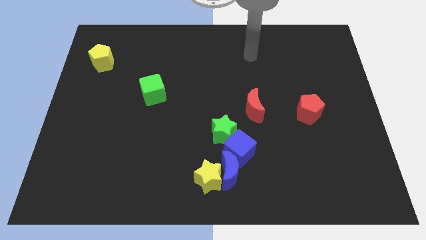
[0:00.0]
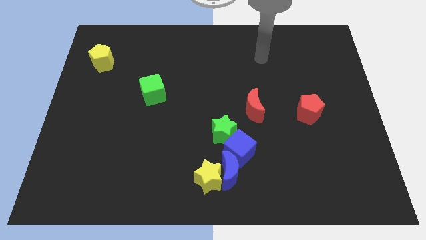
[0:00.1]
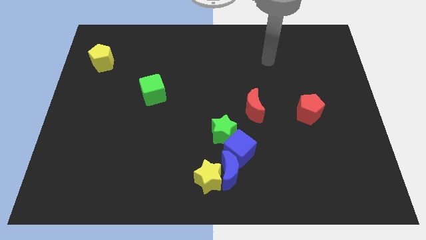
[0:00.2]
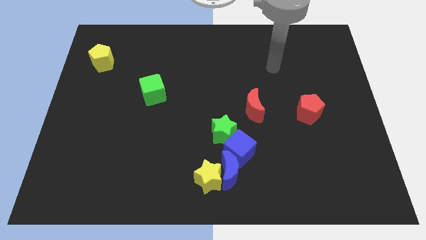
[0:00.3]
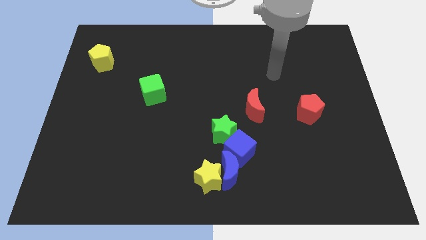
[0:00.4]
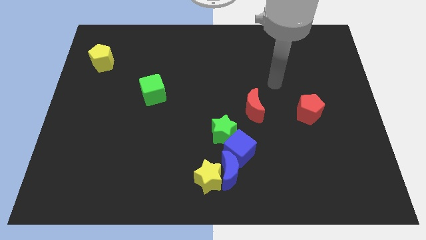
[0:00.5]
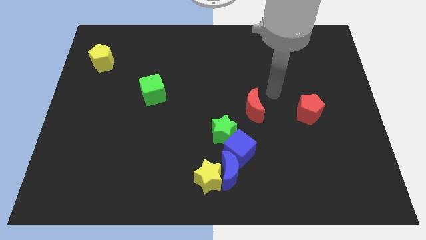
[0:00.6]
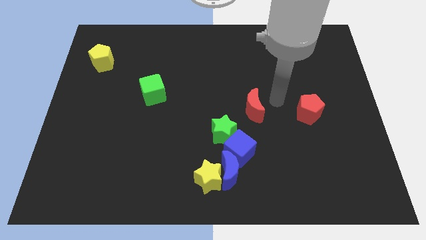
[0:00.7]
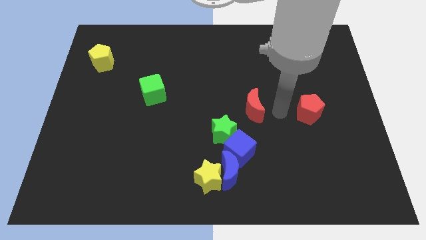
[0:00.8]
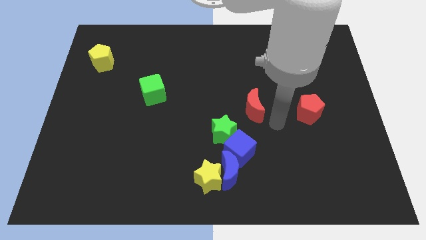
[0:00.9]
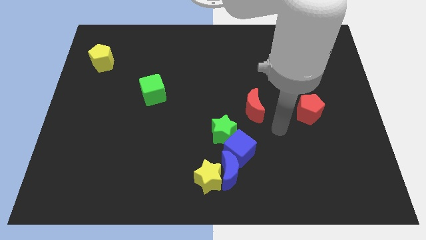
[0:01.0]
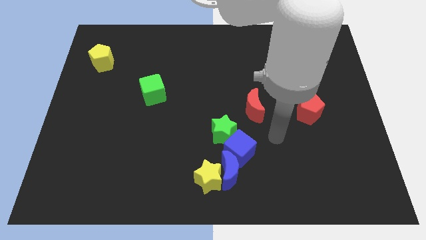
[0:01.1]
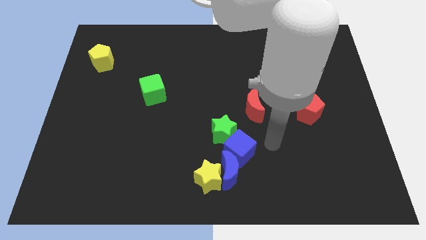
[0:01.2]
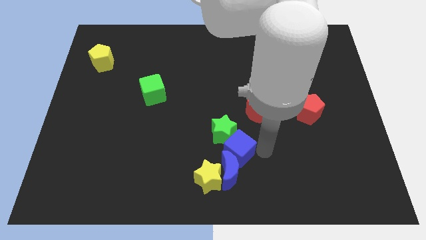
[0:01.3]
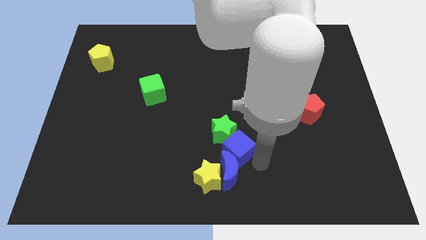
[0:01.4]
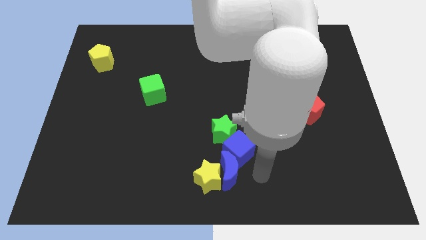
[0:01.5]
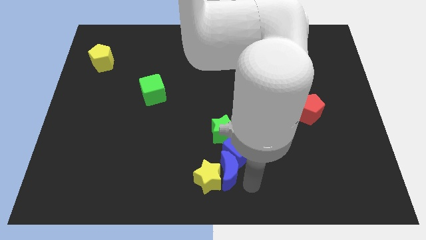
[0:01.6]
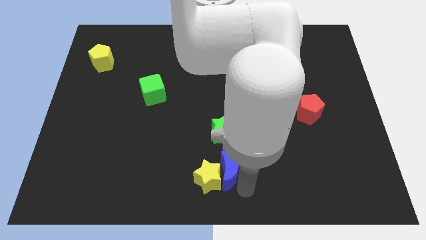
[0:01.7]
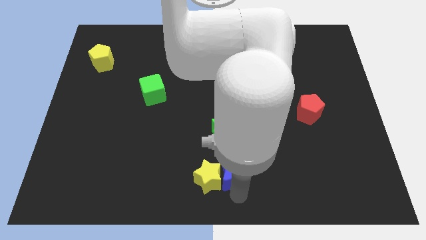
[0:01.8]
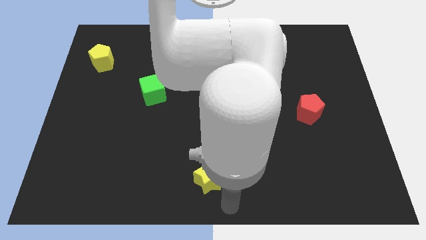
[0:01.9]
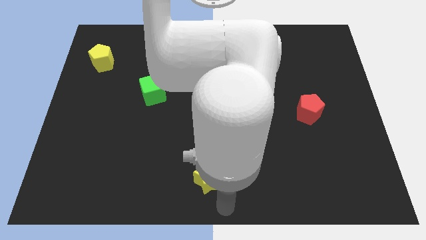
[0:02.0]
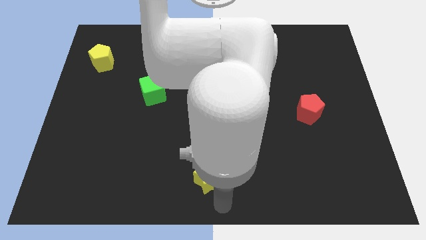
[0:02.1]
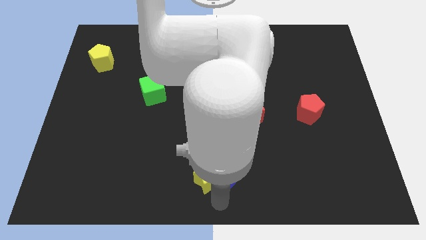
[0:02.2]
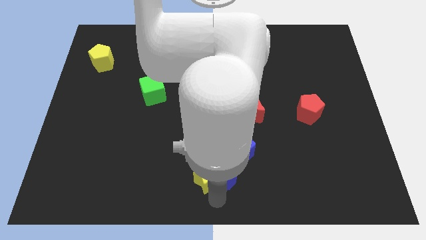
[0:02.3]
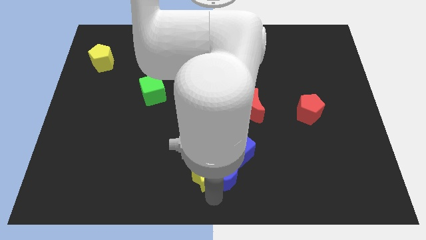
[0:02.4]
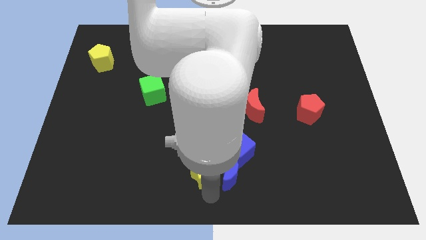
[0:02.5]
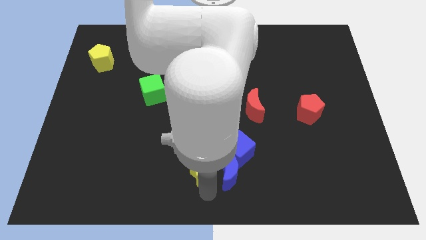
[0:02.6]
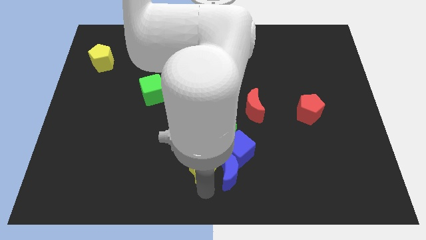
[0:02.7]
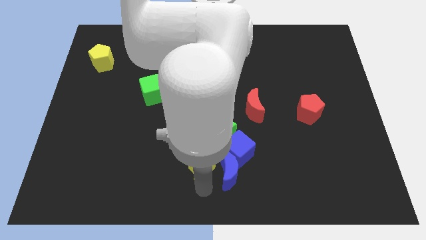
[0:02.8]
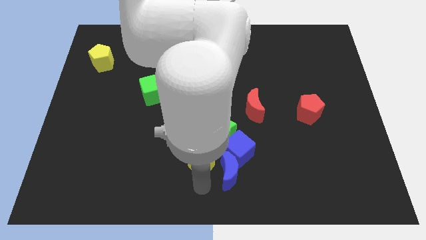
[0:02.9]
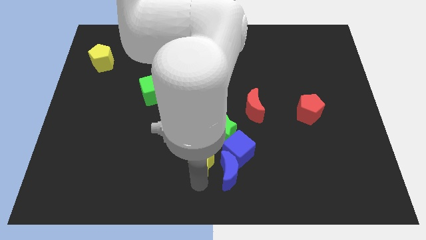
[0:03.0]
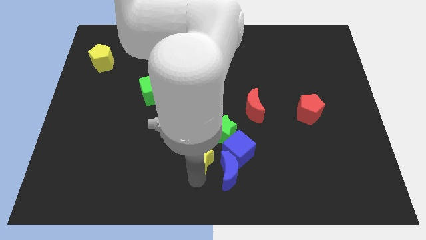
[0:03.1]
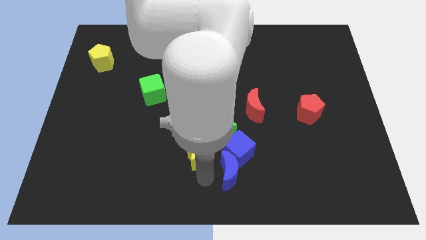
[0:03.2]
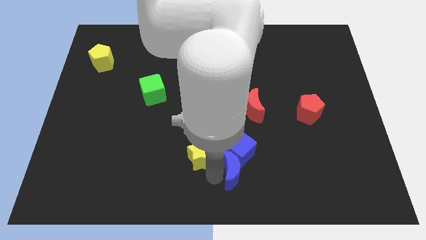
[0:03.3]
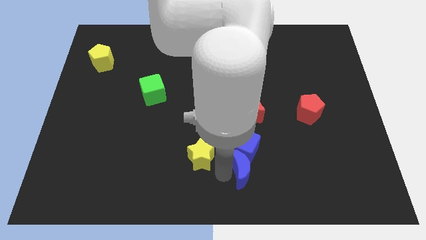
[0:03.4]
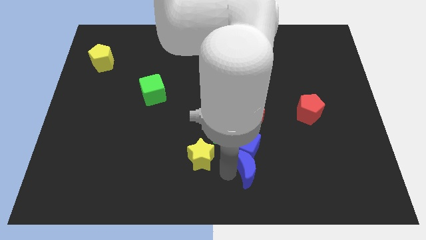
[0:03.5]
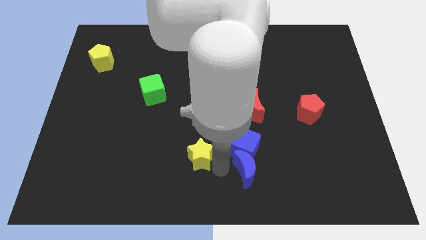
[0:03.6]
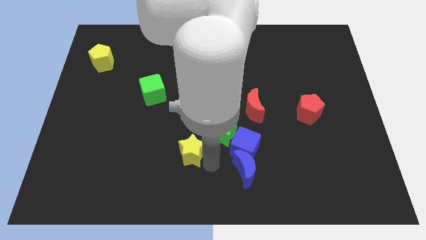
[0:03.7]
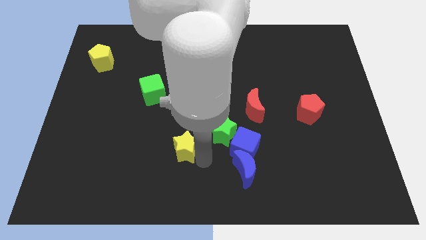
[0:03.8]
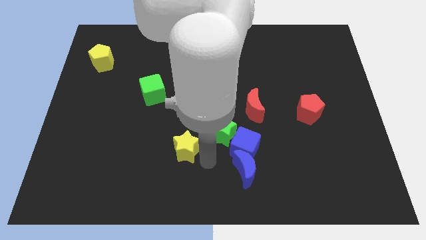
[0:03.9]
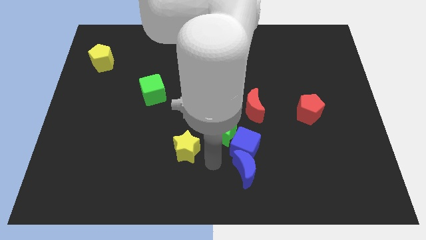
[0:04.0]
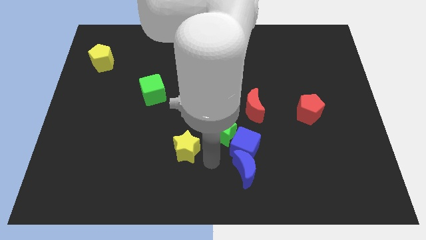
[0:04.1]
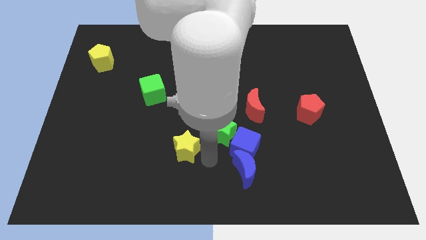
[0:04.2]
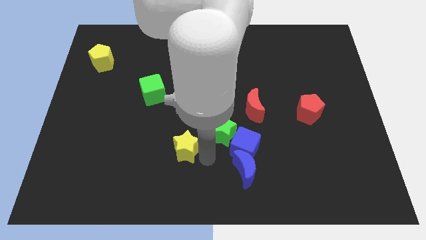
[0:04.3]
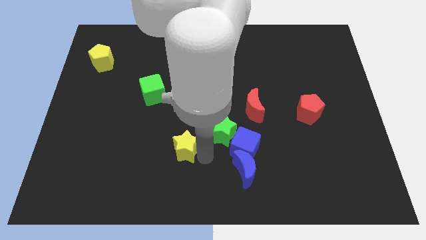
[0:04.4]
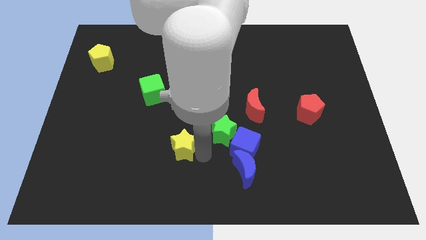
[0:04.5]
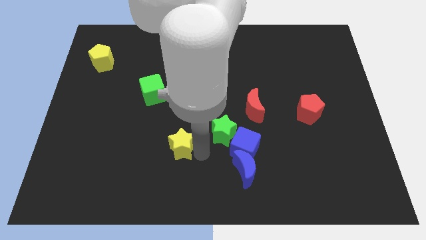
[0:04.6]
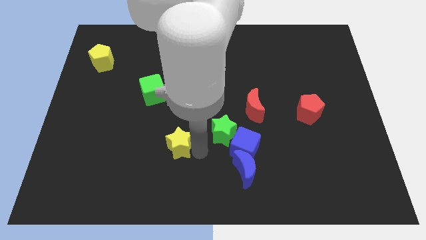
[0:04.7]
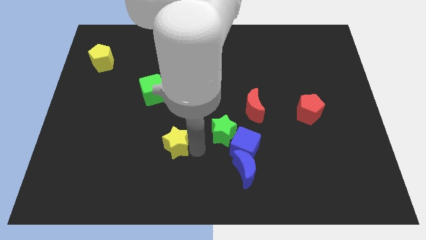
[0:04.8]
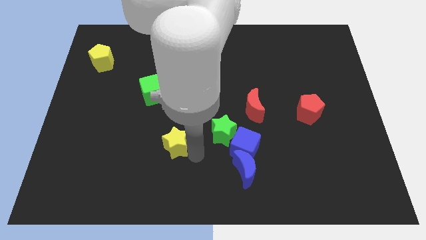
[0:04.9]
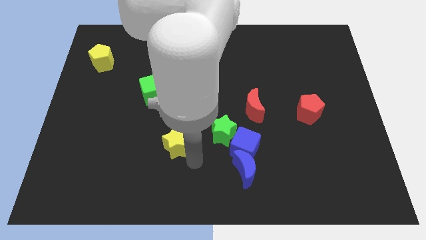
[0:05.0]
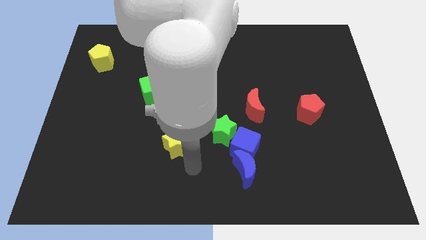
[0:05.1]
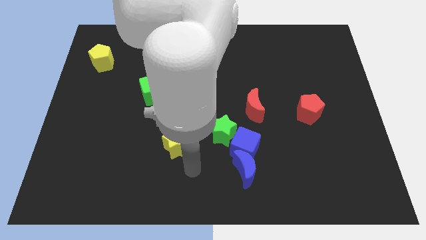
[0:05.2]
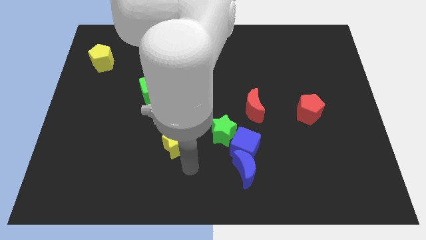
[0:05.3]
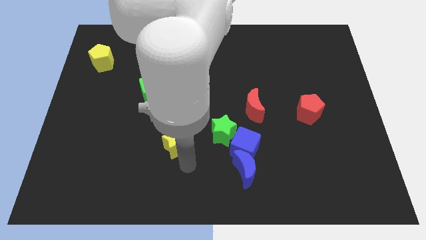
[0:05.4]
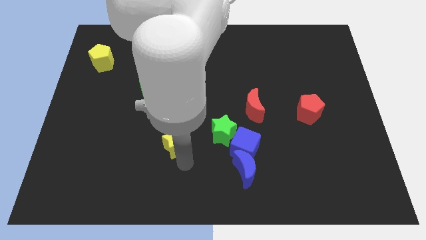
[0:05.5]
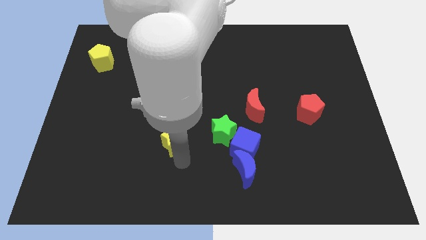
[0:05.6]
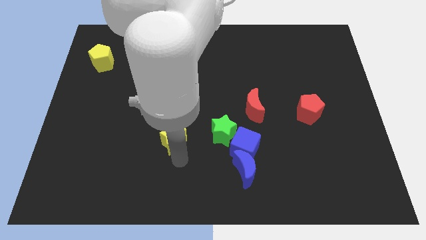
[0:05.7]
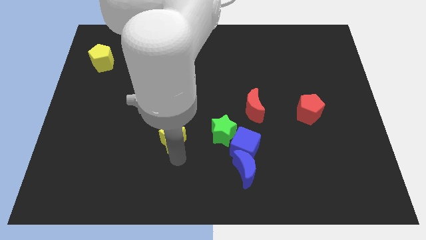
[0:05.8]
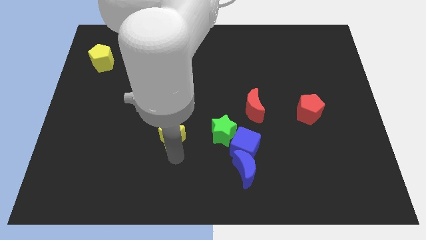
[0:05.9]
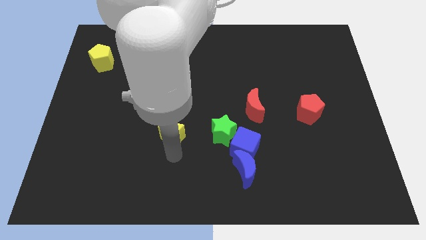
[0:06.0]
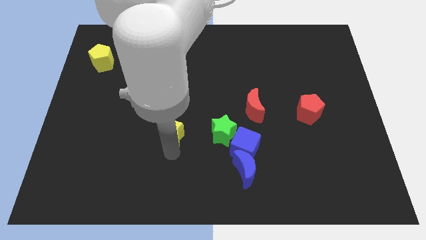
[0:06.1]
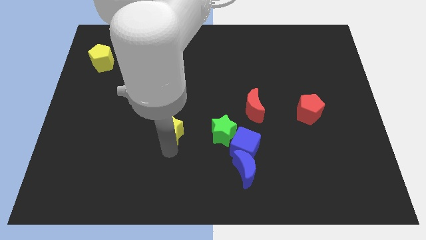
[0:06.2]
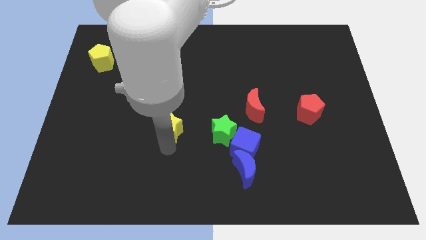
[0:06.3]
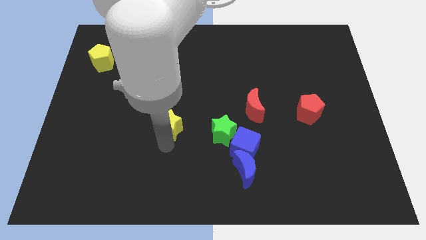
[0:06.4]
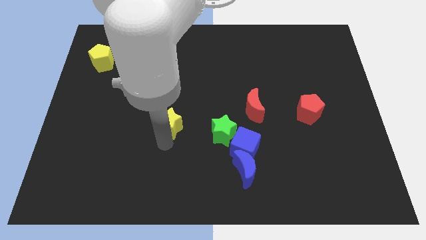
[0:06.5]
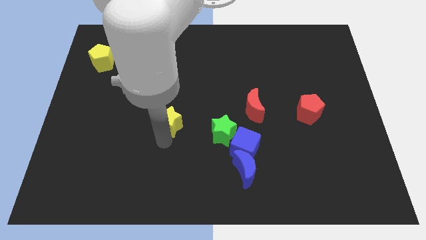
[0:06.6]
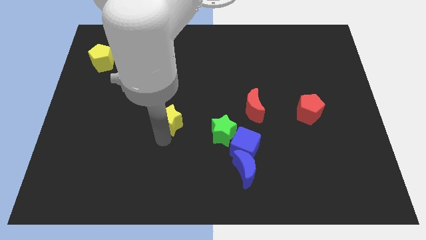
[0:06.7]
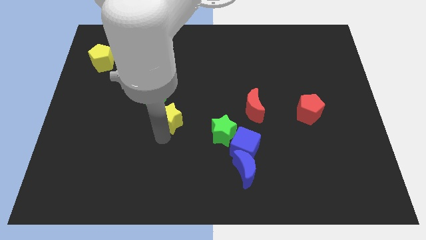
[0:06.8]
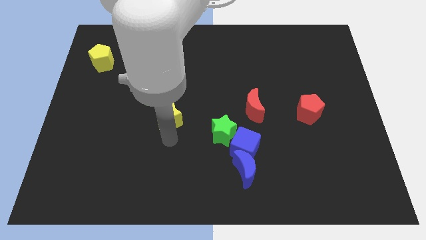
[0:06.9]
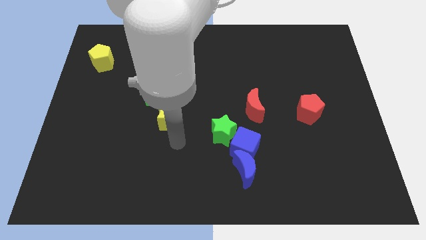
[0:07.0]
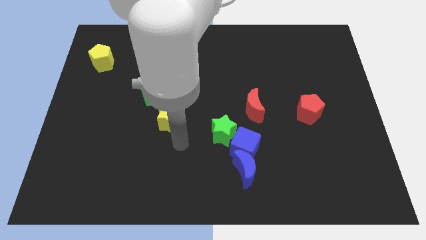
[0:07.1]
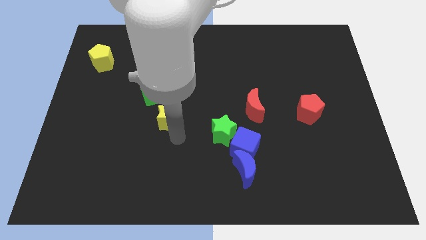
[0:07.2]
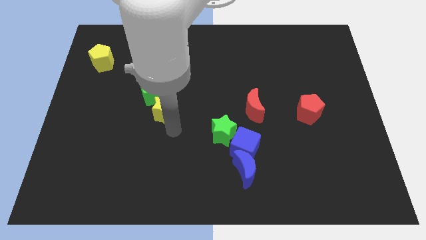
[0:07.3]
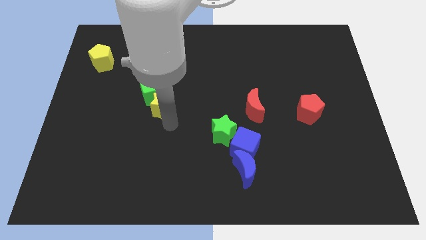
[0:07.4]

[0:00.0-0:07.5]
move the yellow star close to the green cube

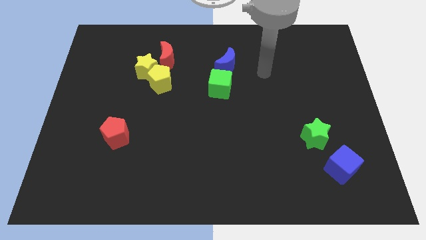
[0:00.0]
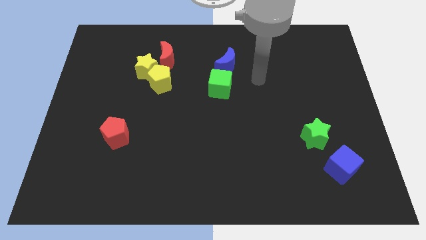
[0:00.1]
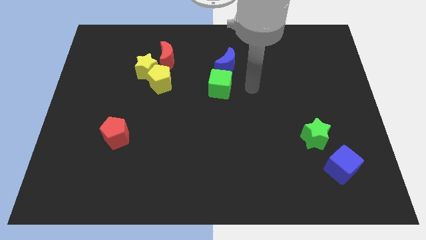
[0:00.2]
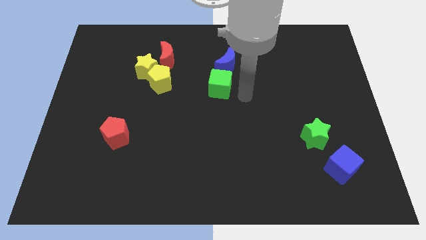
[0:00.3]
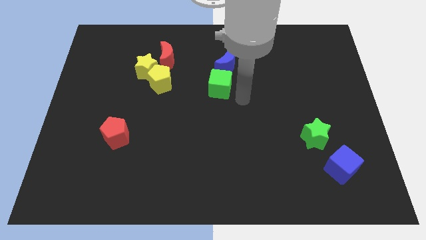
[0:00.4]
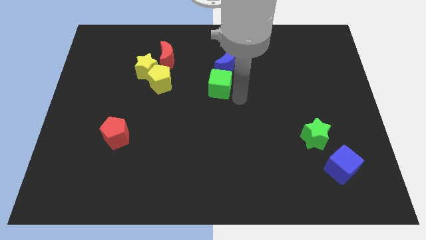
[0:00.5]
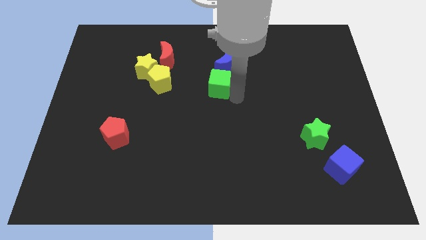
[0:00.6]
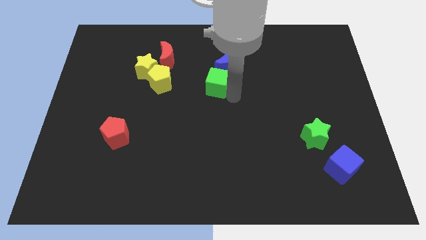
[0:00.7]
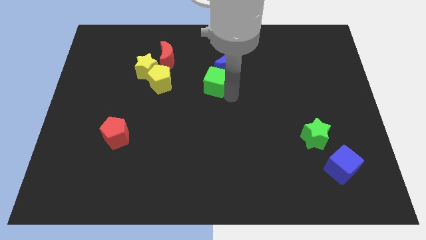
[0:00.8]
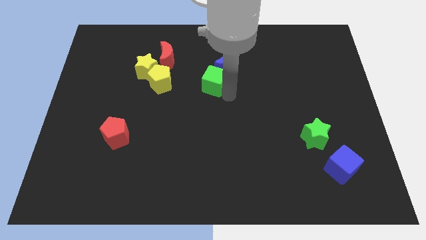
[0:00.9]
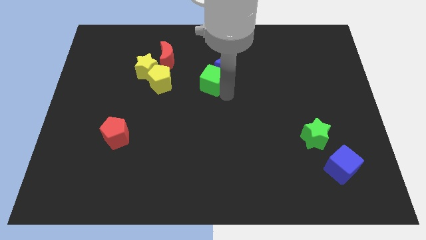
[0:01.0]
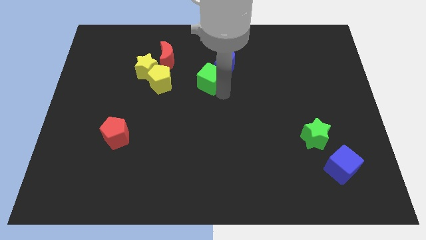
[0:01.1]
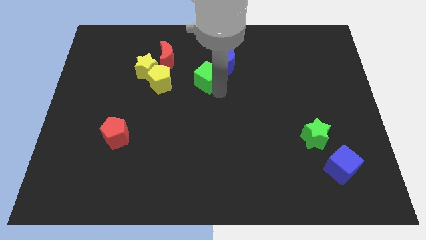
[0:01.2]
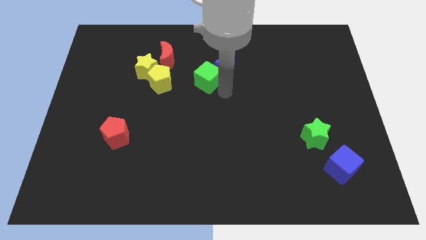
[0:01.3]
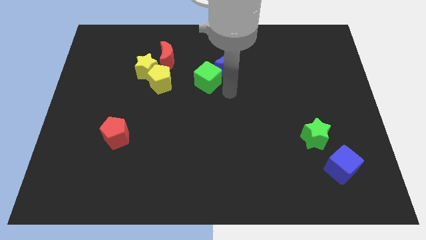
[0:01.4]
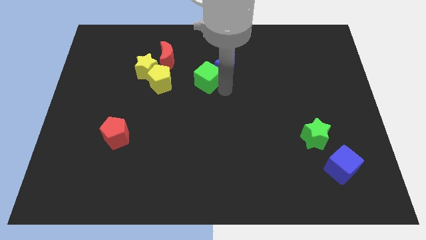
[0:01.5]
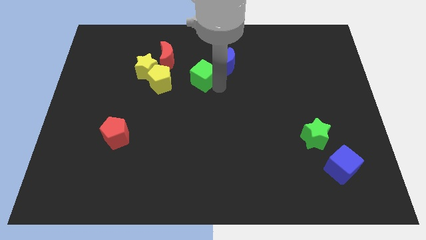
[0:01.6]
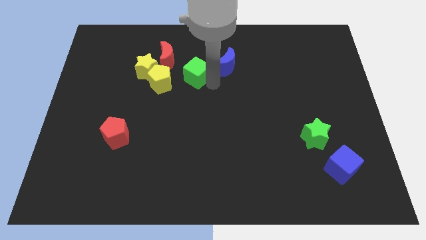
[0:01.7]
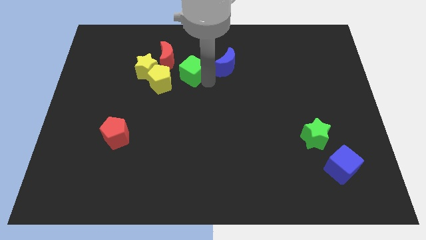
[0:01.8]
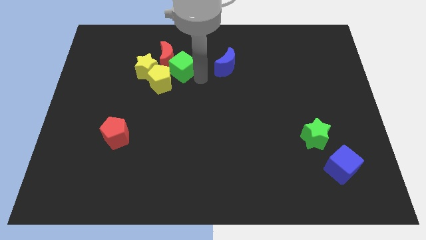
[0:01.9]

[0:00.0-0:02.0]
slide the green cube towards the red moon
